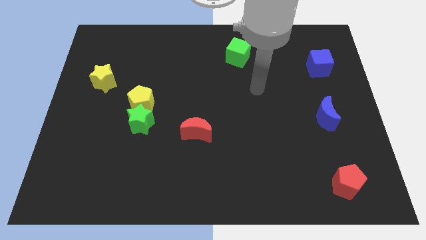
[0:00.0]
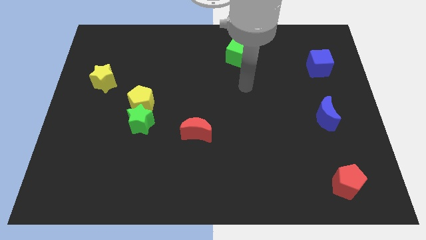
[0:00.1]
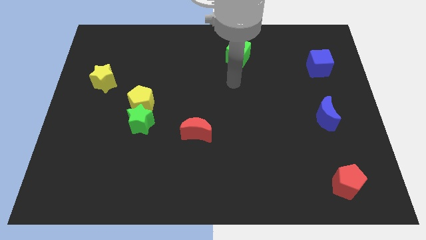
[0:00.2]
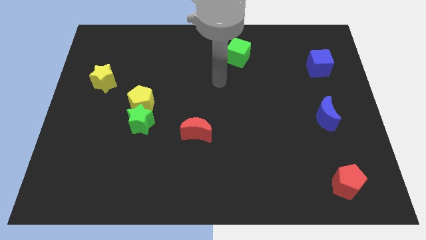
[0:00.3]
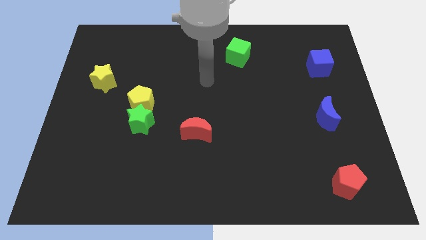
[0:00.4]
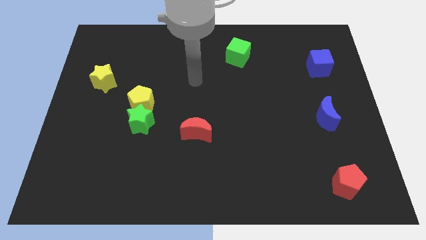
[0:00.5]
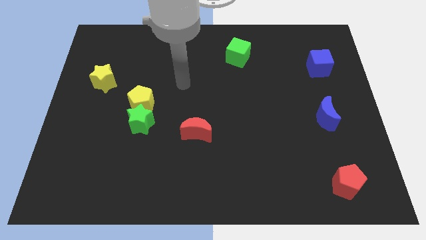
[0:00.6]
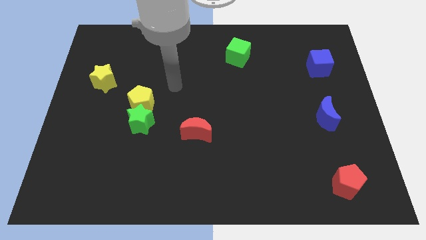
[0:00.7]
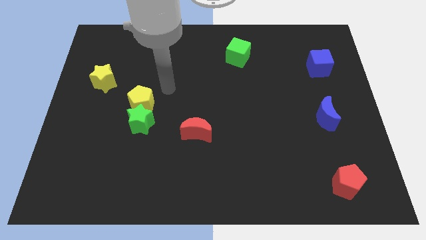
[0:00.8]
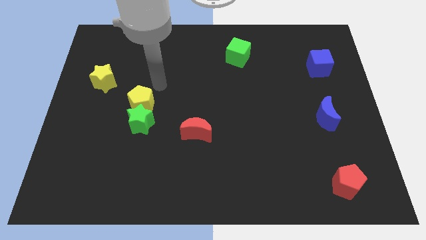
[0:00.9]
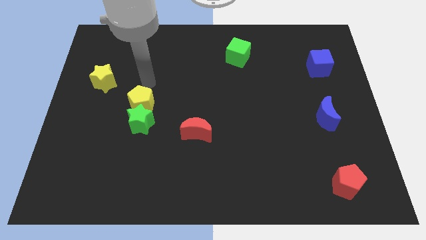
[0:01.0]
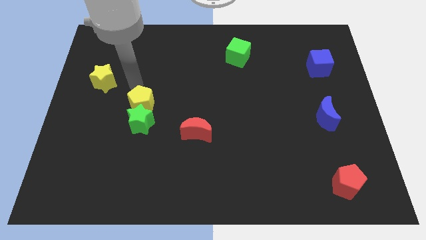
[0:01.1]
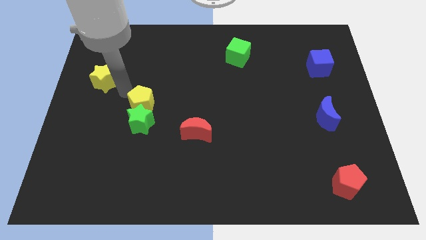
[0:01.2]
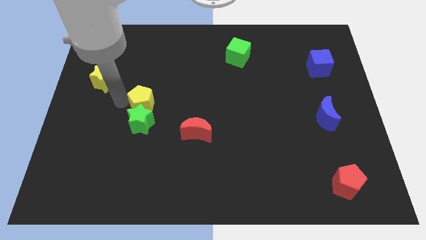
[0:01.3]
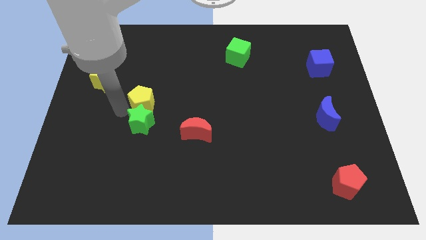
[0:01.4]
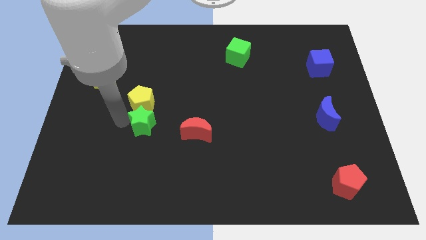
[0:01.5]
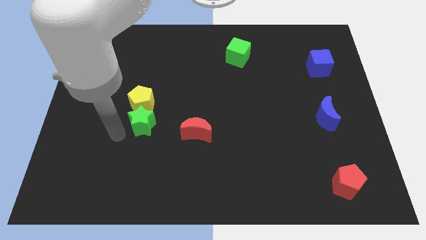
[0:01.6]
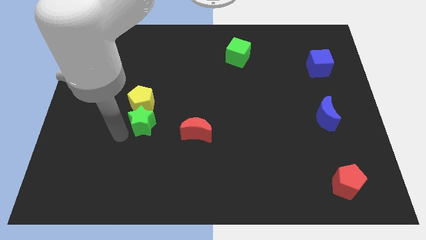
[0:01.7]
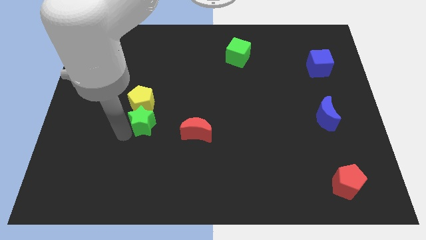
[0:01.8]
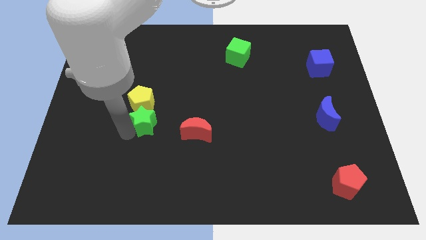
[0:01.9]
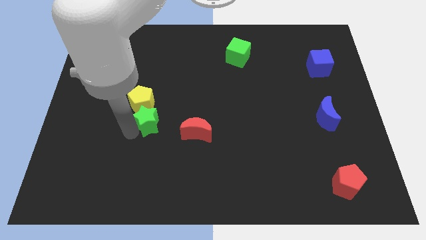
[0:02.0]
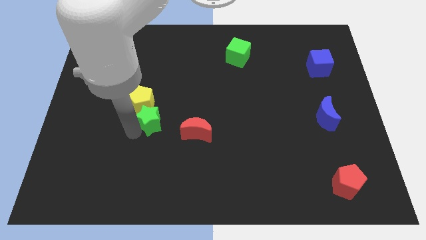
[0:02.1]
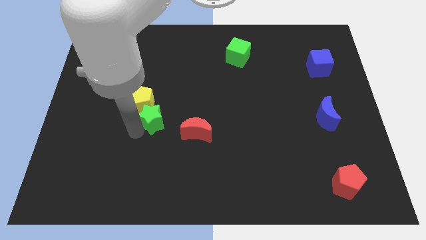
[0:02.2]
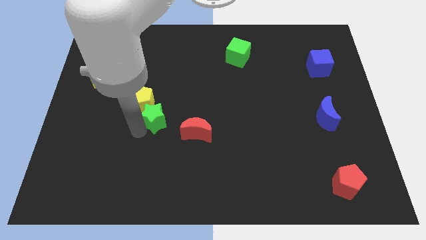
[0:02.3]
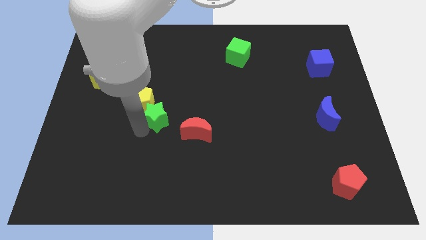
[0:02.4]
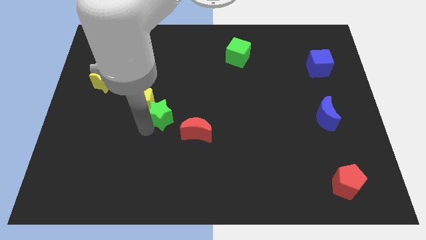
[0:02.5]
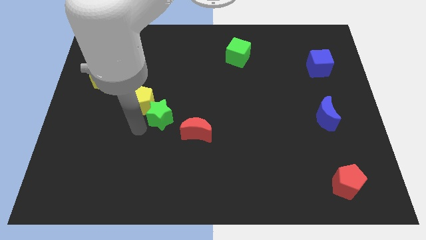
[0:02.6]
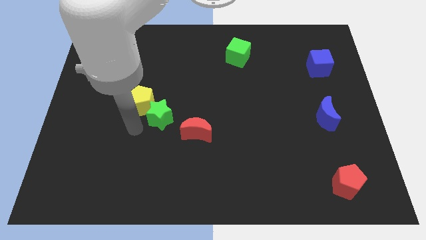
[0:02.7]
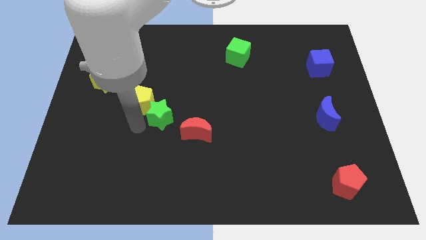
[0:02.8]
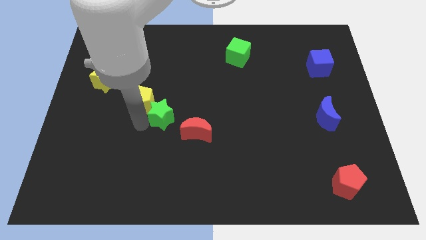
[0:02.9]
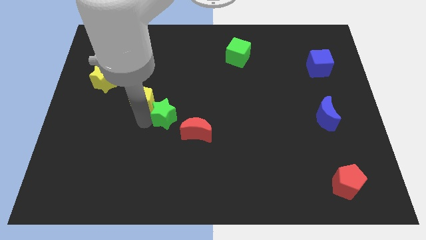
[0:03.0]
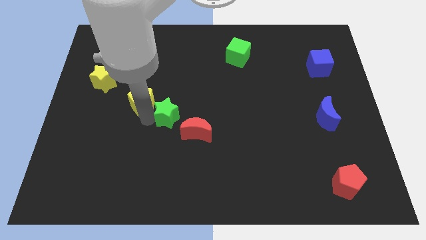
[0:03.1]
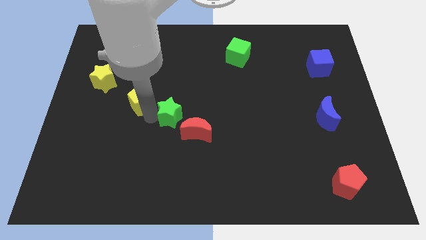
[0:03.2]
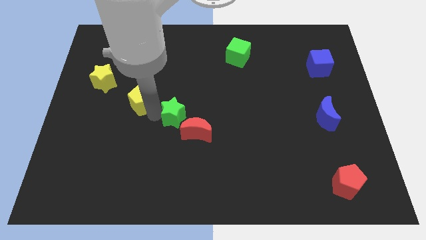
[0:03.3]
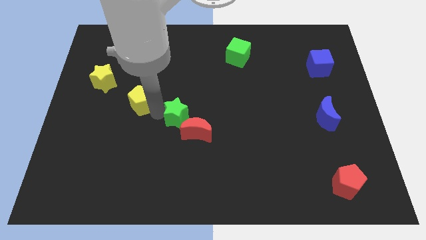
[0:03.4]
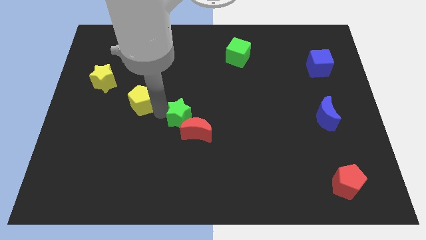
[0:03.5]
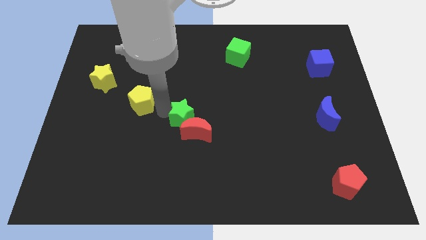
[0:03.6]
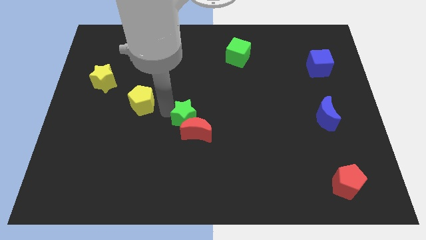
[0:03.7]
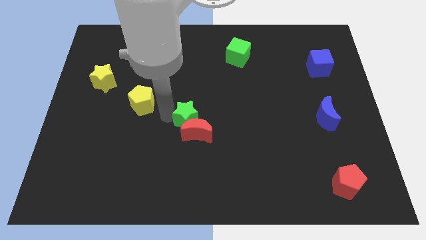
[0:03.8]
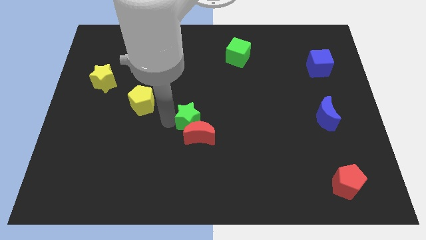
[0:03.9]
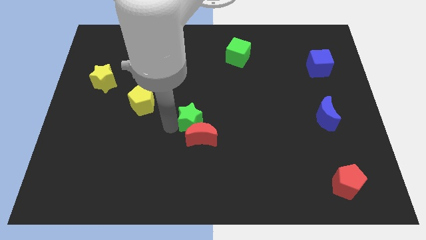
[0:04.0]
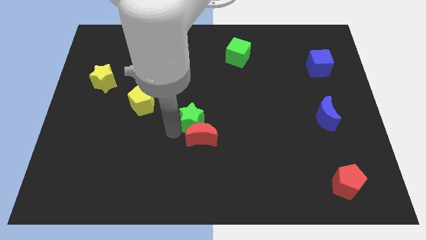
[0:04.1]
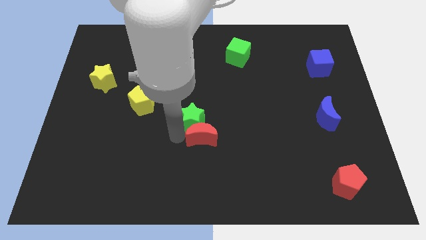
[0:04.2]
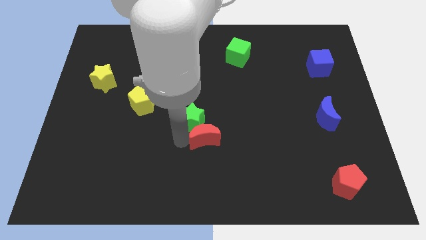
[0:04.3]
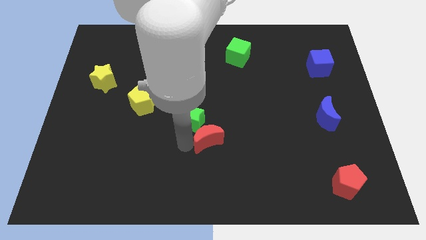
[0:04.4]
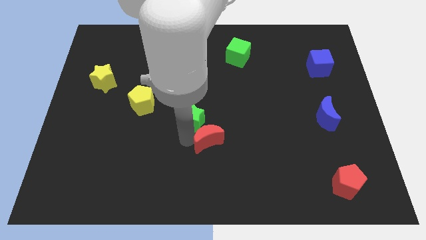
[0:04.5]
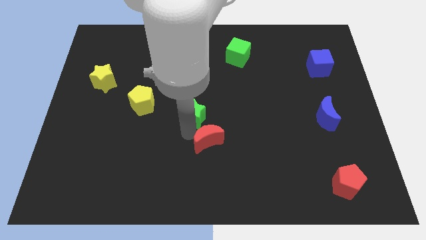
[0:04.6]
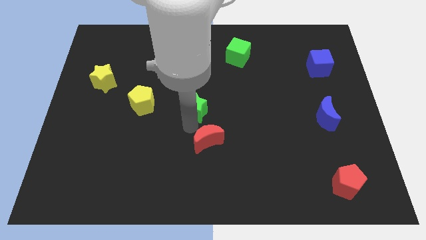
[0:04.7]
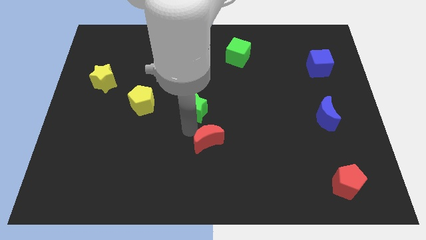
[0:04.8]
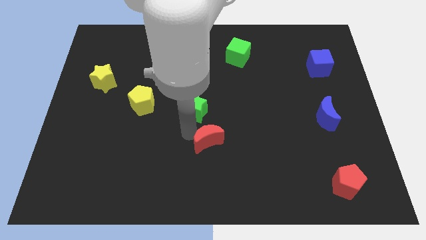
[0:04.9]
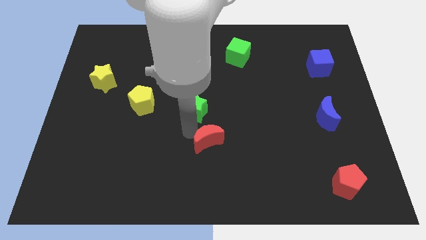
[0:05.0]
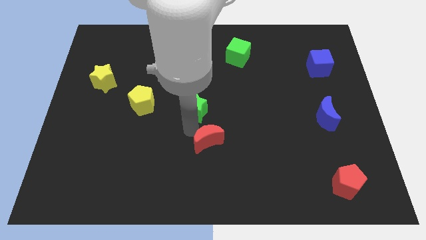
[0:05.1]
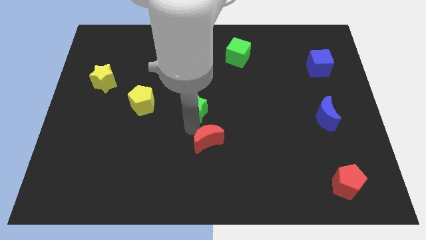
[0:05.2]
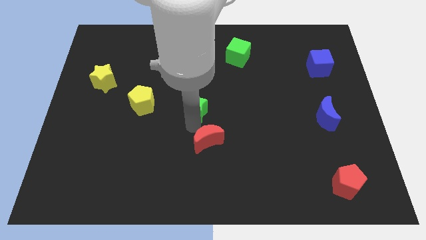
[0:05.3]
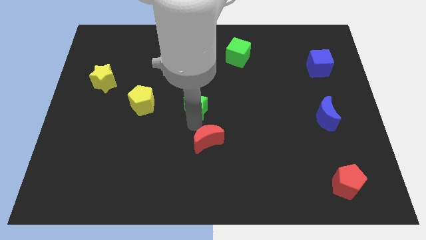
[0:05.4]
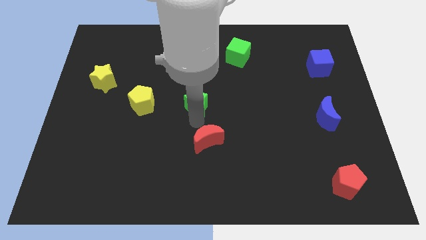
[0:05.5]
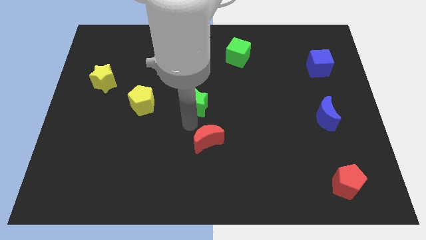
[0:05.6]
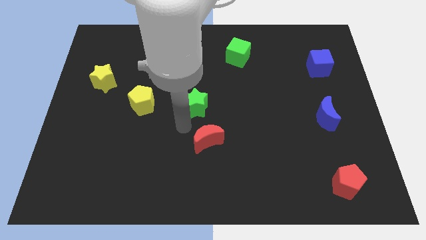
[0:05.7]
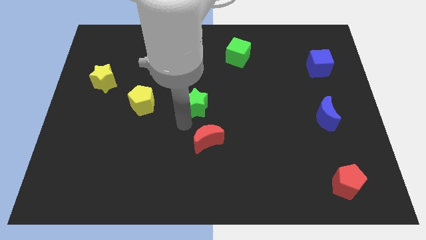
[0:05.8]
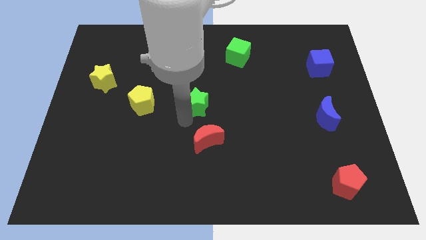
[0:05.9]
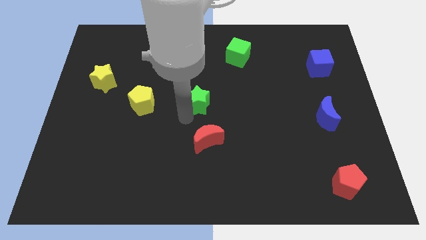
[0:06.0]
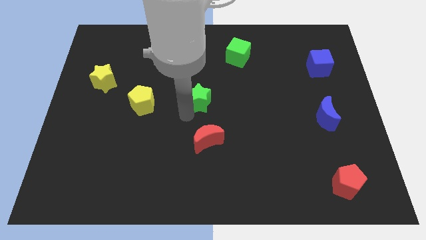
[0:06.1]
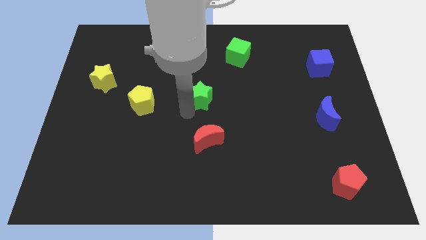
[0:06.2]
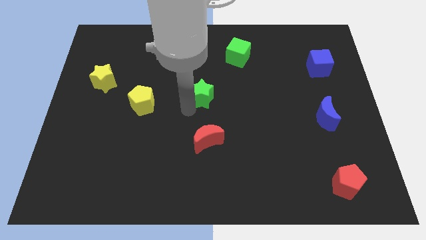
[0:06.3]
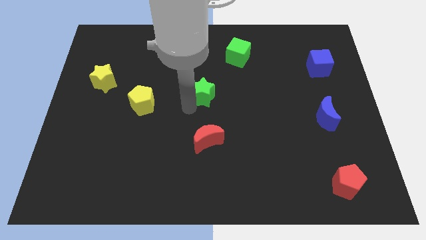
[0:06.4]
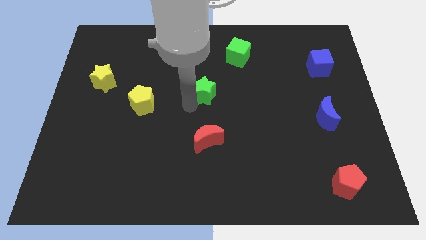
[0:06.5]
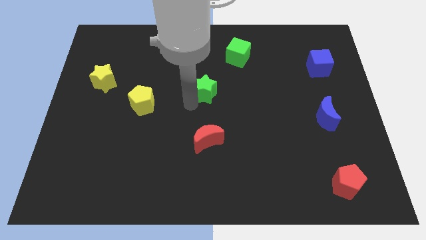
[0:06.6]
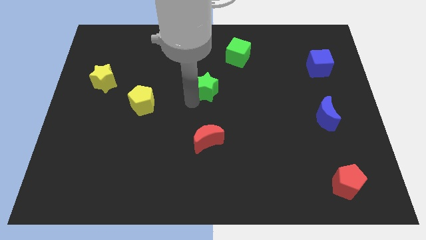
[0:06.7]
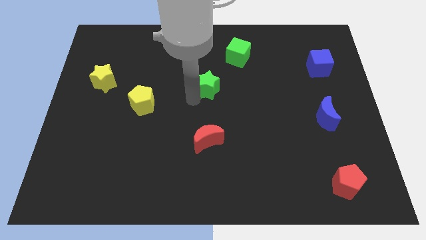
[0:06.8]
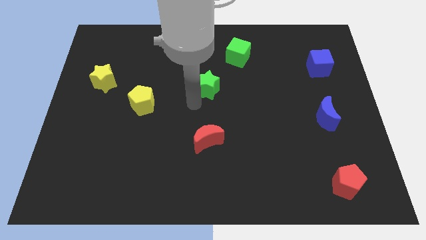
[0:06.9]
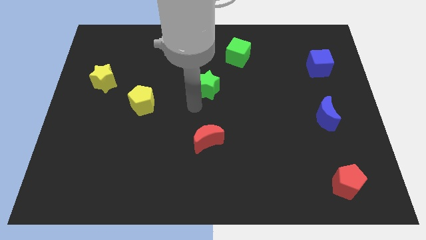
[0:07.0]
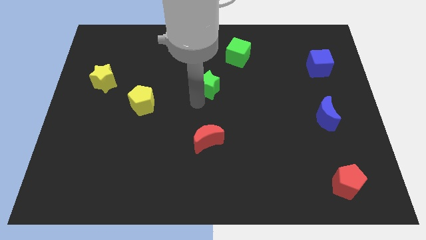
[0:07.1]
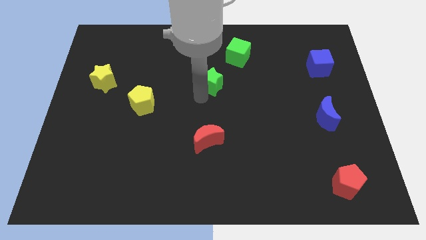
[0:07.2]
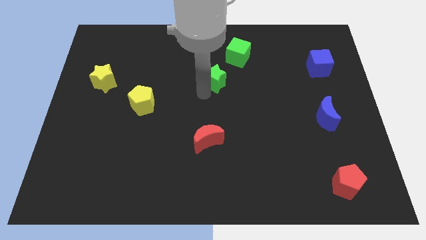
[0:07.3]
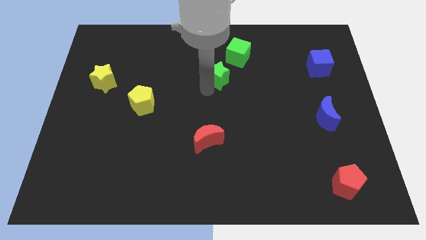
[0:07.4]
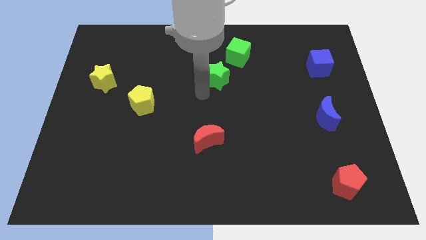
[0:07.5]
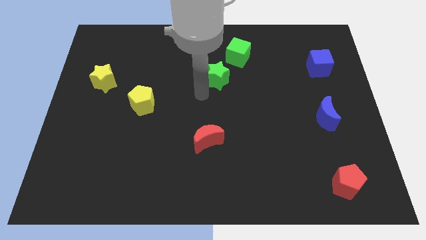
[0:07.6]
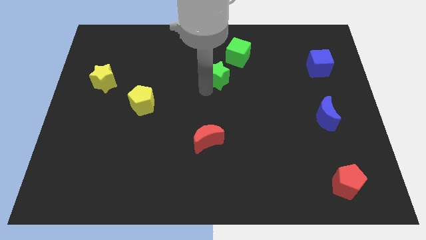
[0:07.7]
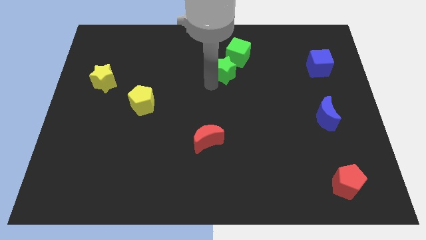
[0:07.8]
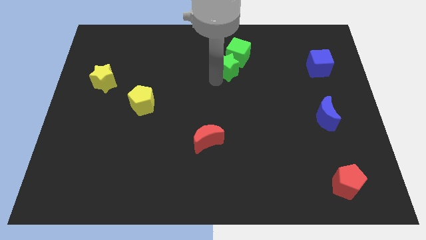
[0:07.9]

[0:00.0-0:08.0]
slide the green star to the green cube
